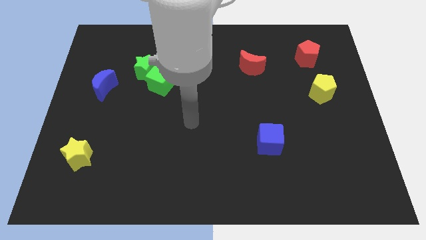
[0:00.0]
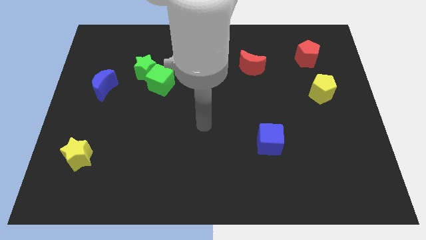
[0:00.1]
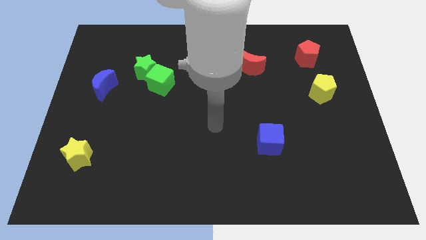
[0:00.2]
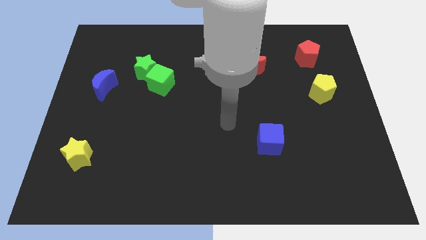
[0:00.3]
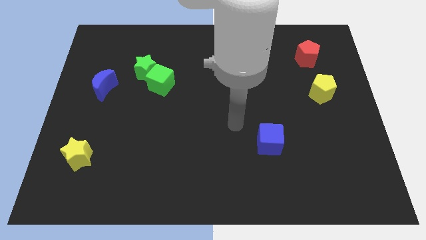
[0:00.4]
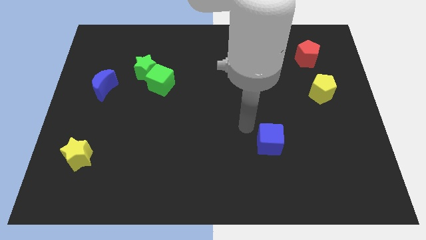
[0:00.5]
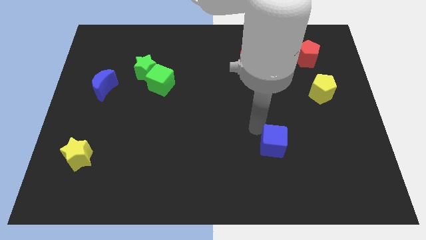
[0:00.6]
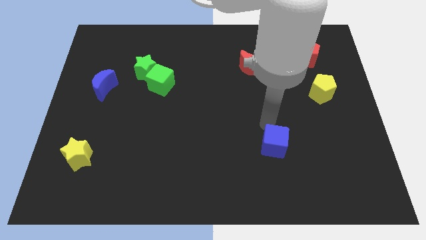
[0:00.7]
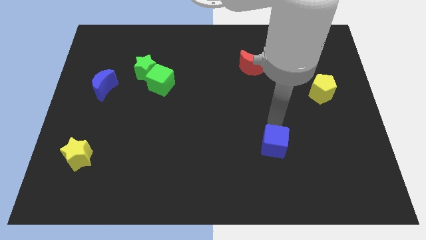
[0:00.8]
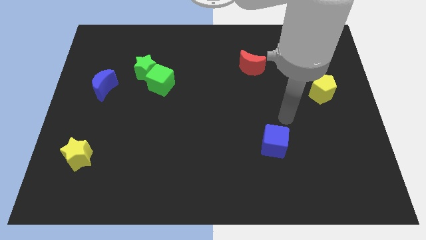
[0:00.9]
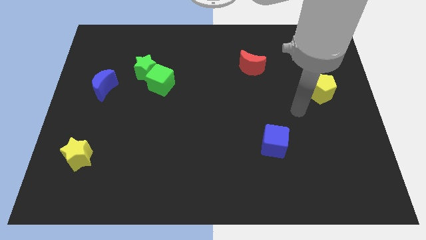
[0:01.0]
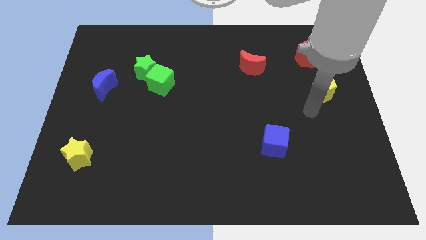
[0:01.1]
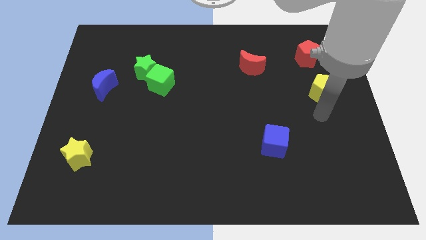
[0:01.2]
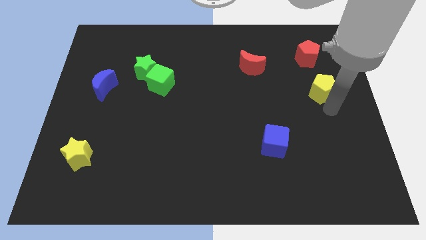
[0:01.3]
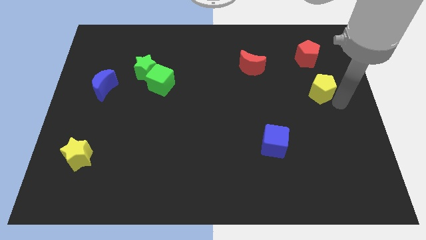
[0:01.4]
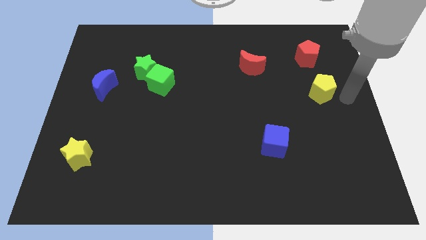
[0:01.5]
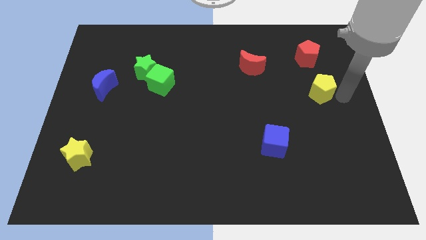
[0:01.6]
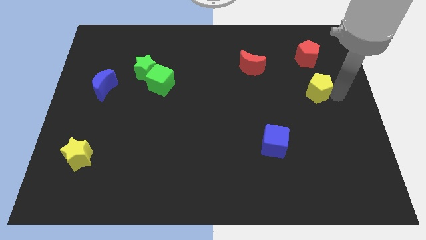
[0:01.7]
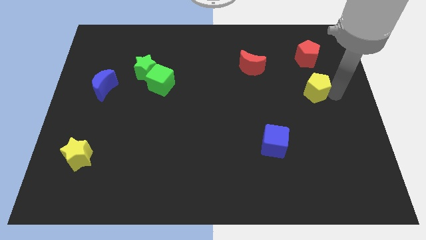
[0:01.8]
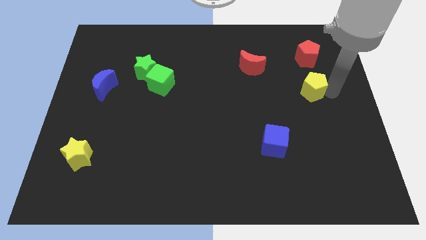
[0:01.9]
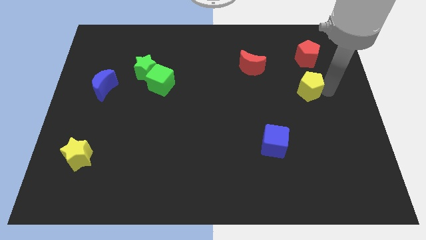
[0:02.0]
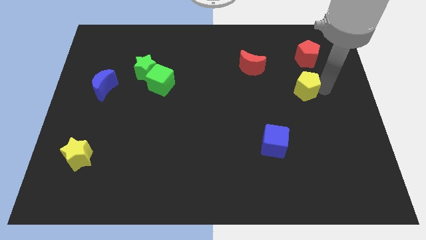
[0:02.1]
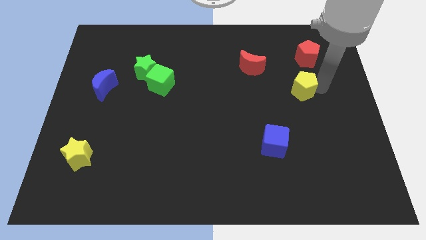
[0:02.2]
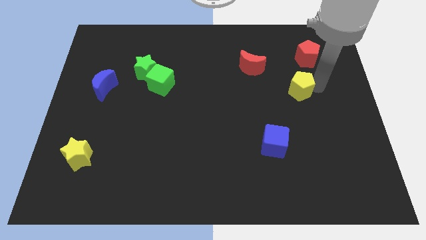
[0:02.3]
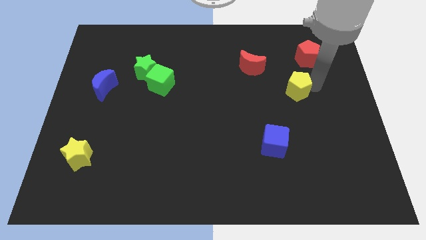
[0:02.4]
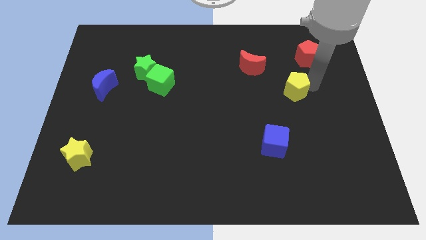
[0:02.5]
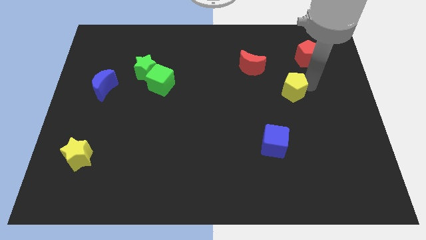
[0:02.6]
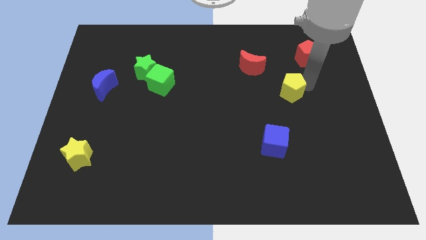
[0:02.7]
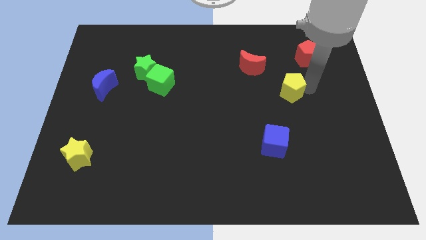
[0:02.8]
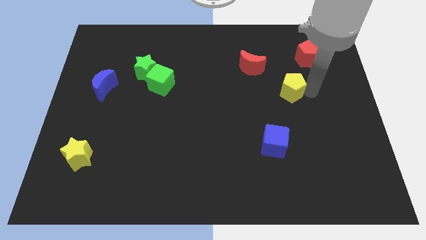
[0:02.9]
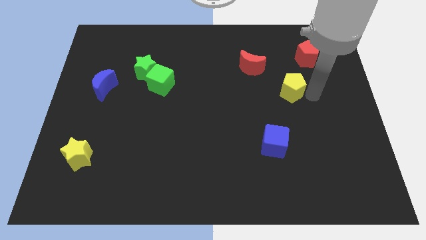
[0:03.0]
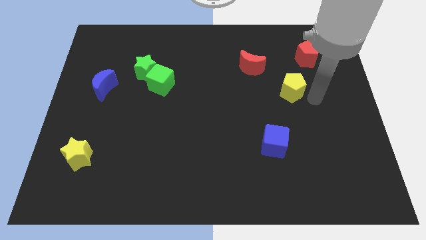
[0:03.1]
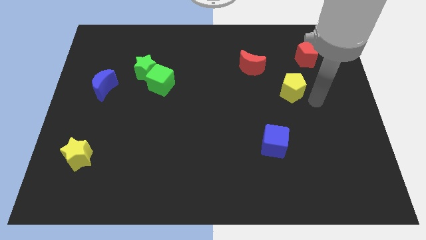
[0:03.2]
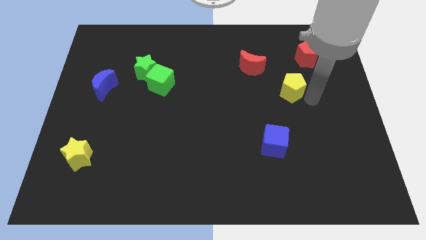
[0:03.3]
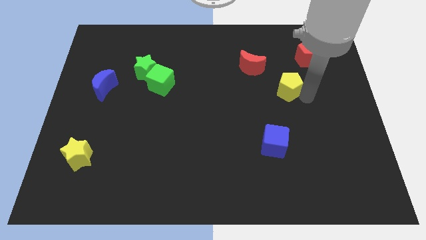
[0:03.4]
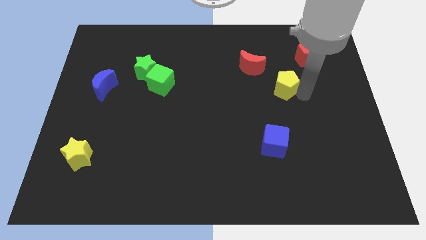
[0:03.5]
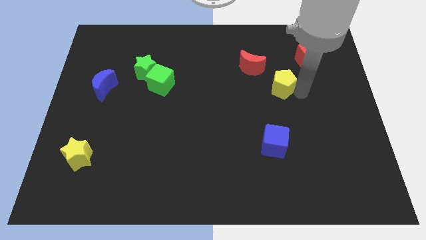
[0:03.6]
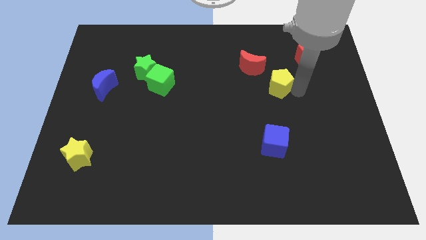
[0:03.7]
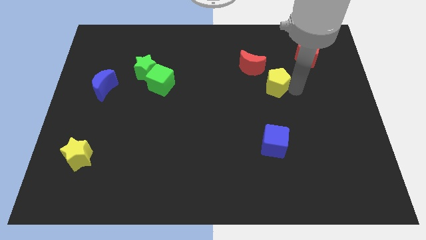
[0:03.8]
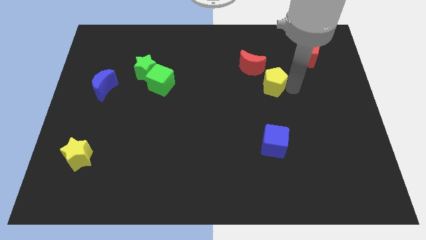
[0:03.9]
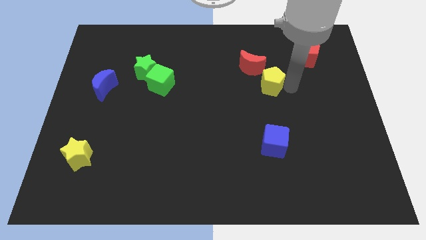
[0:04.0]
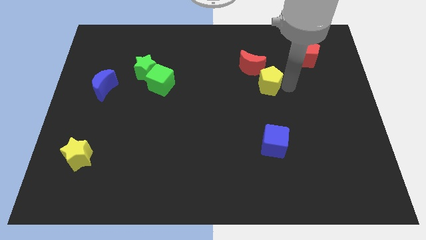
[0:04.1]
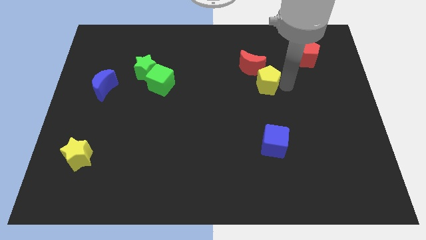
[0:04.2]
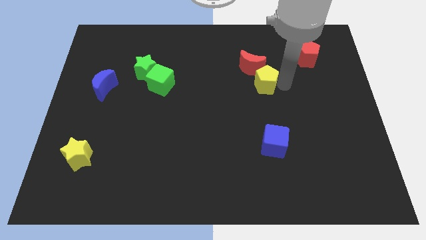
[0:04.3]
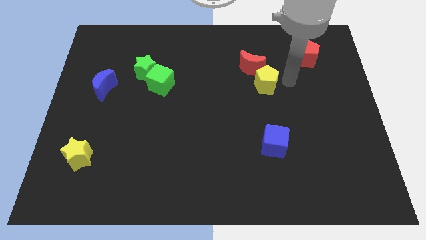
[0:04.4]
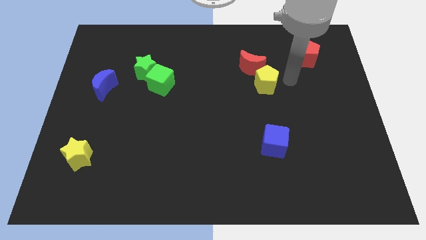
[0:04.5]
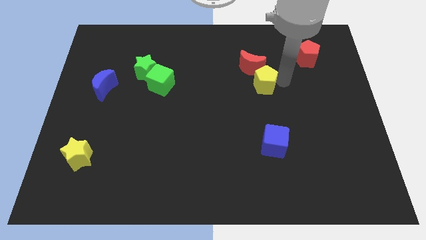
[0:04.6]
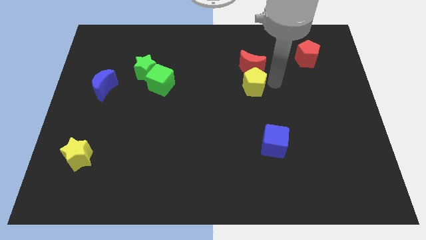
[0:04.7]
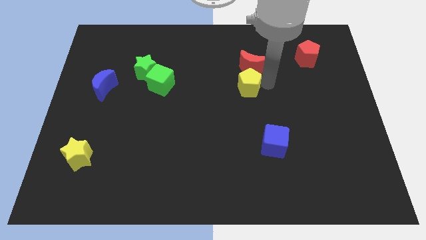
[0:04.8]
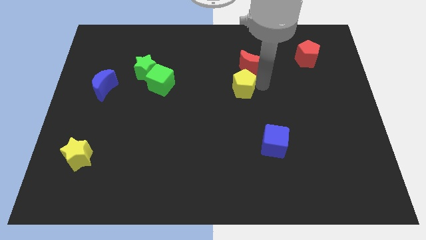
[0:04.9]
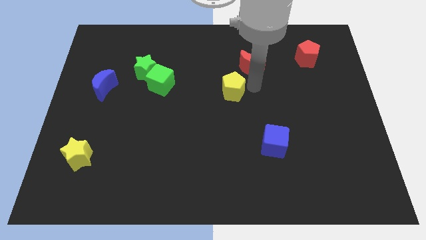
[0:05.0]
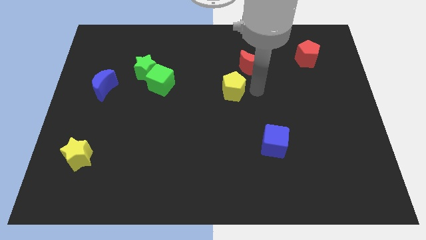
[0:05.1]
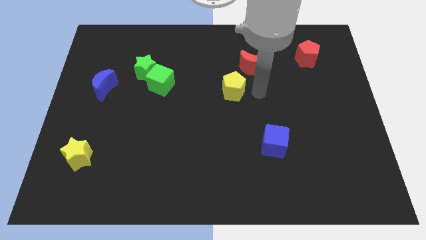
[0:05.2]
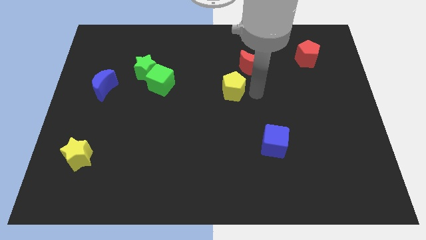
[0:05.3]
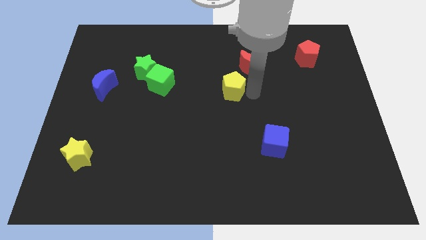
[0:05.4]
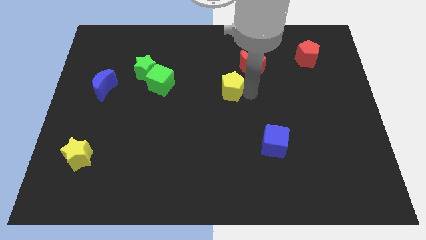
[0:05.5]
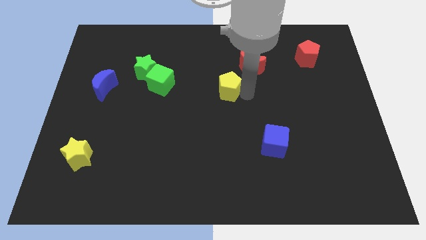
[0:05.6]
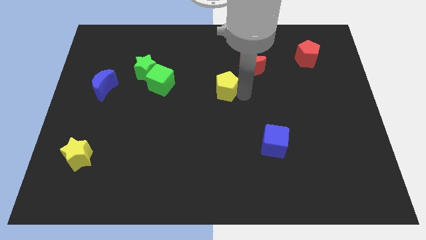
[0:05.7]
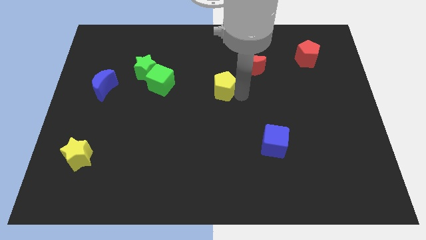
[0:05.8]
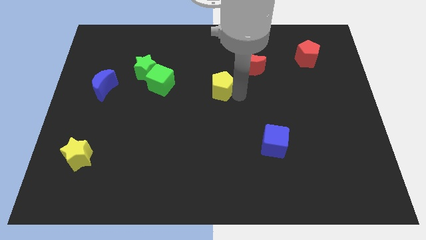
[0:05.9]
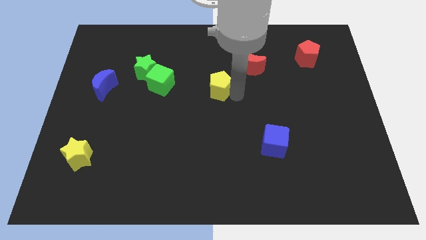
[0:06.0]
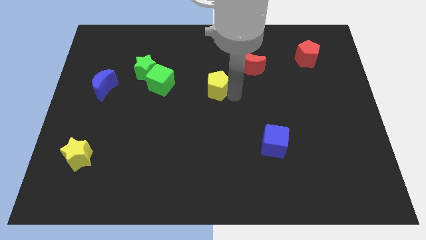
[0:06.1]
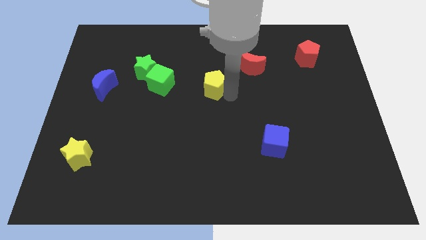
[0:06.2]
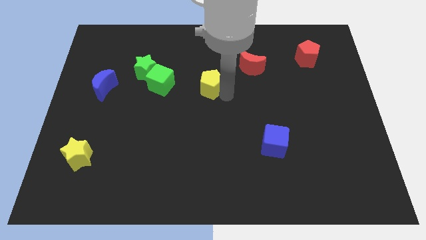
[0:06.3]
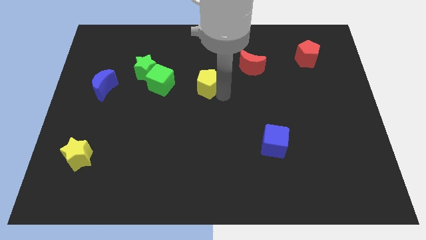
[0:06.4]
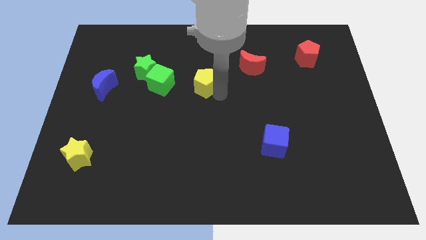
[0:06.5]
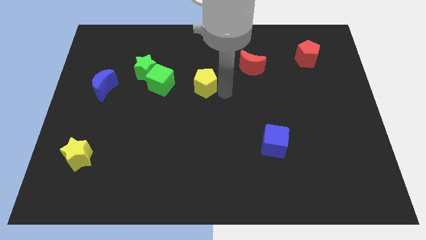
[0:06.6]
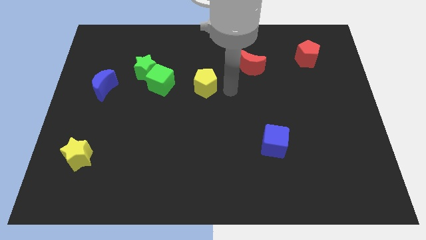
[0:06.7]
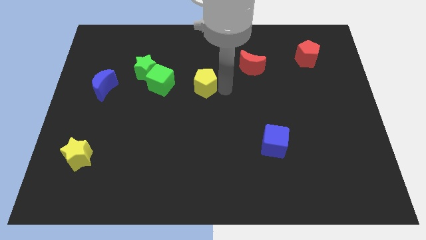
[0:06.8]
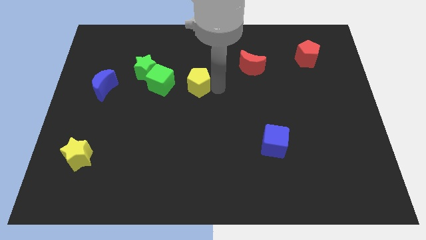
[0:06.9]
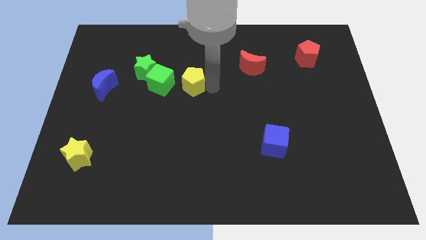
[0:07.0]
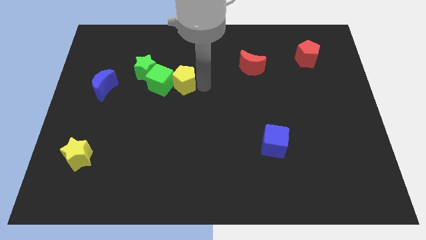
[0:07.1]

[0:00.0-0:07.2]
put the yellow pentagon towards the green cube
